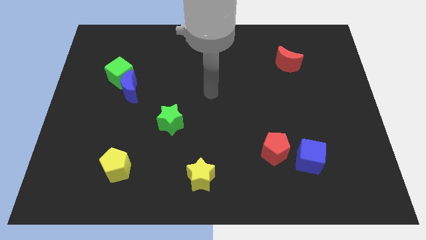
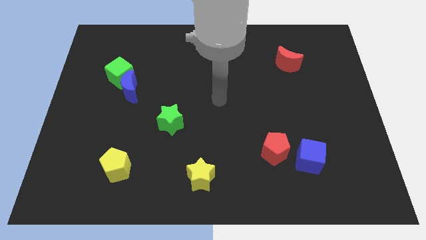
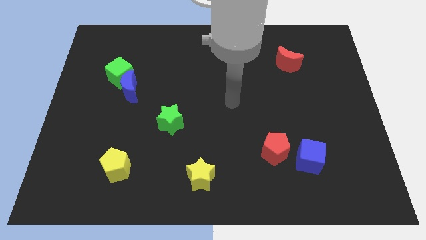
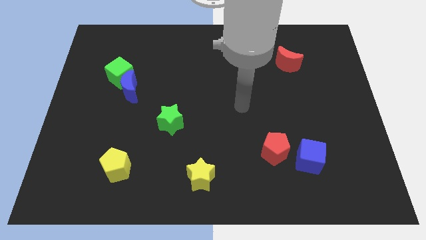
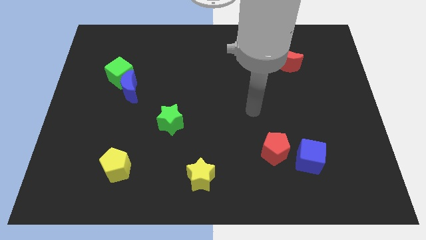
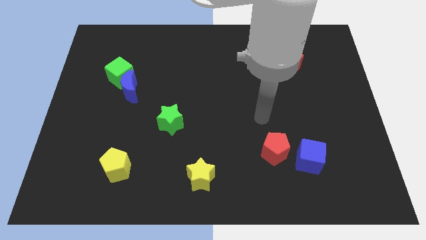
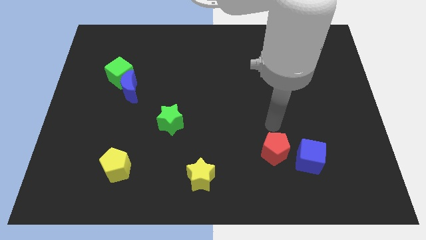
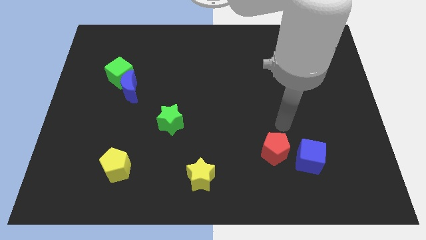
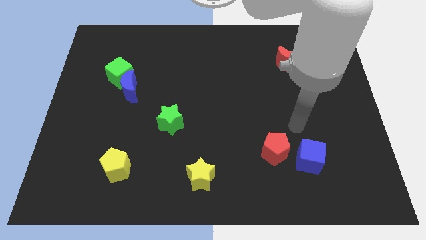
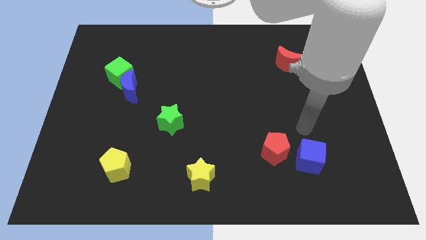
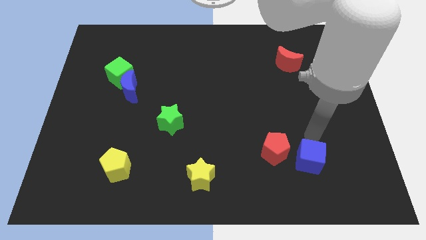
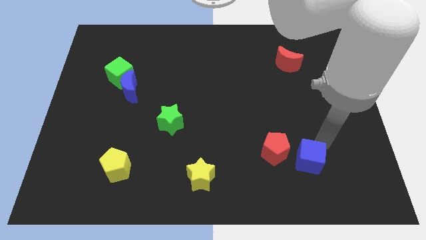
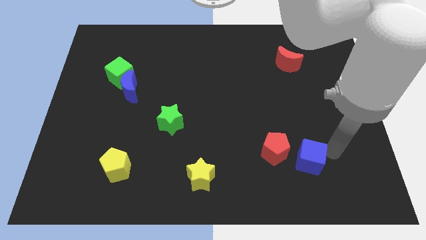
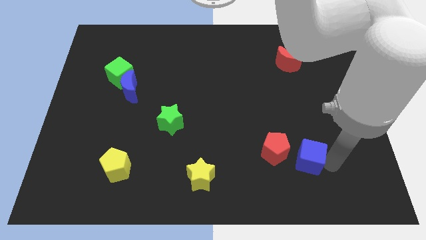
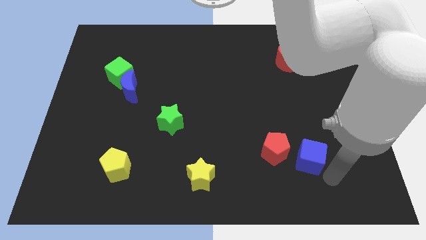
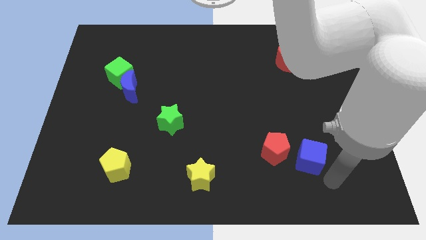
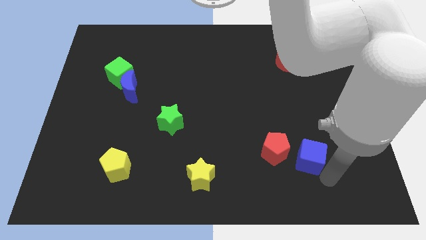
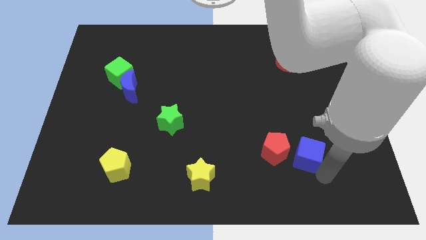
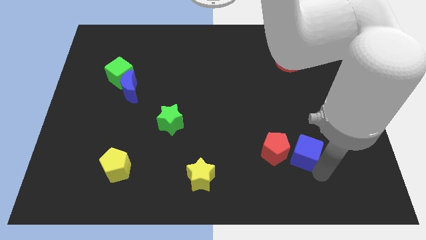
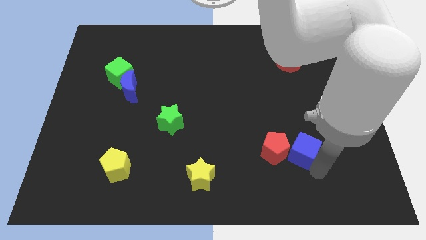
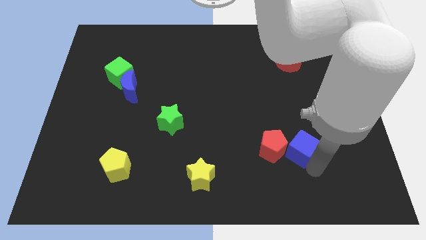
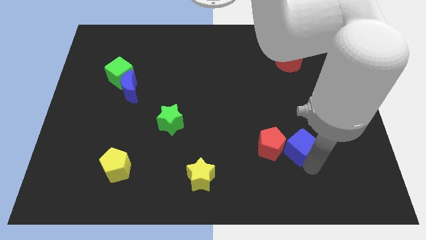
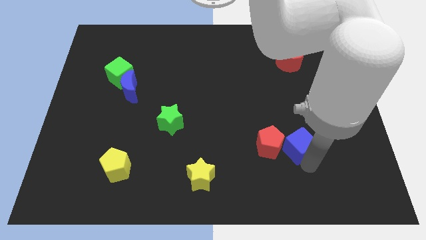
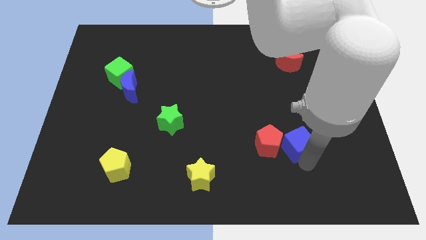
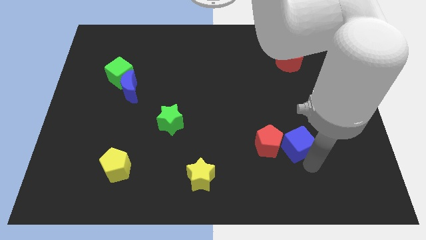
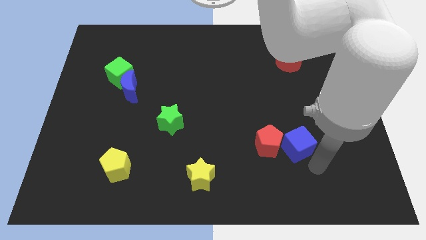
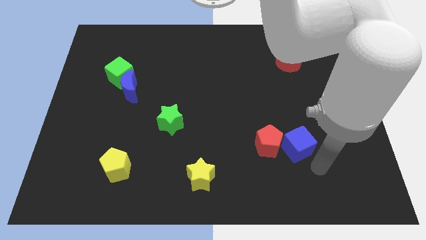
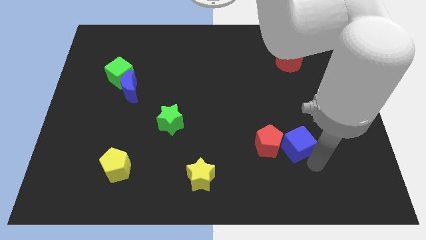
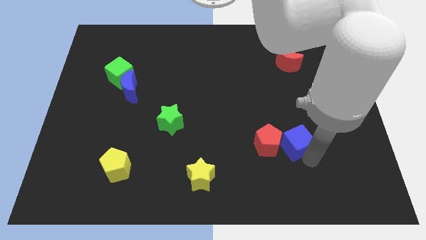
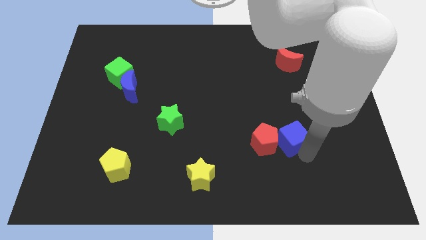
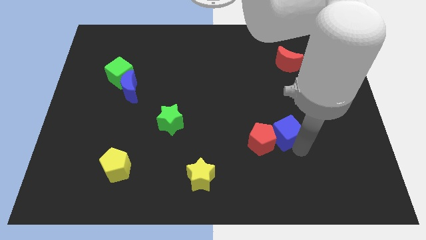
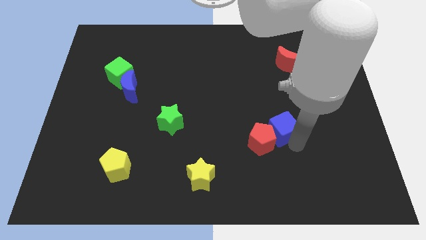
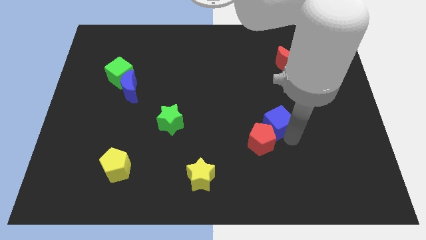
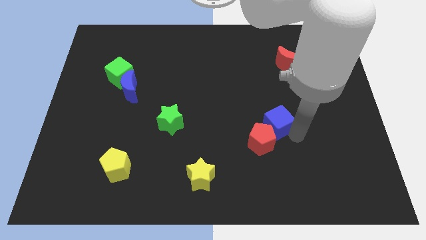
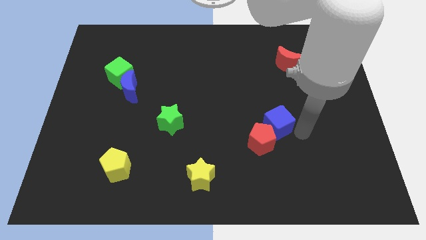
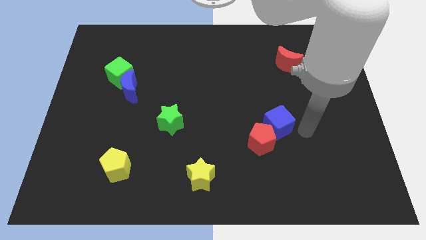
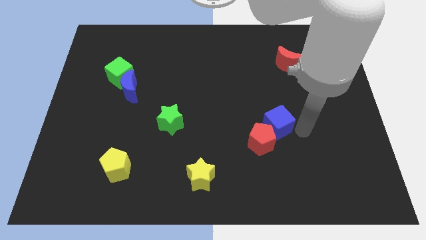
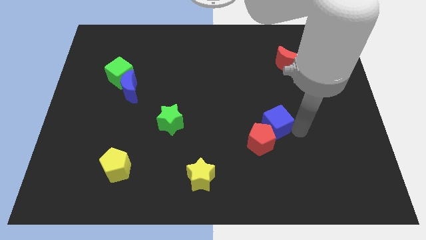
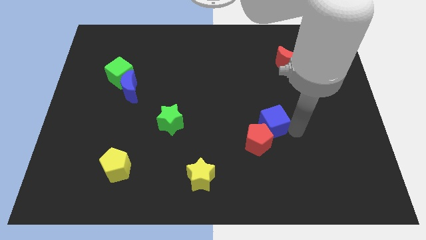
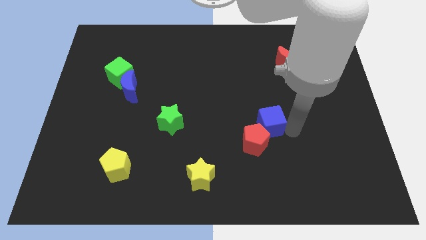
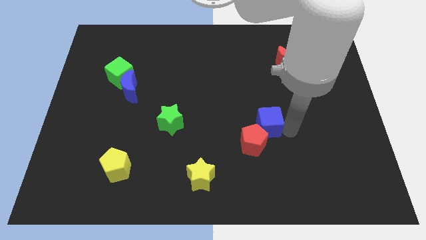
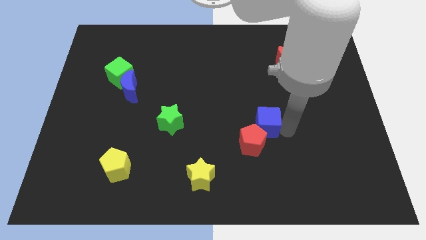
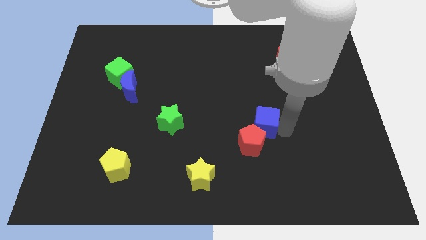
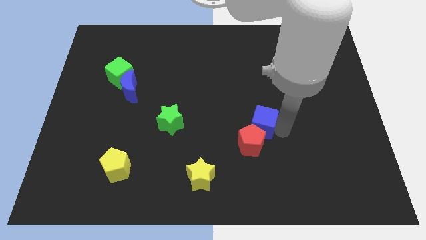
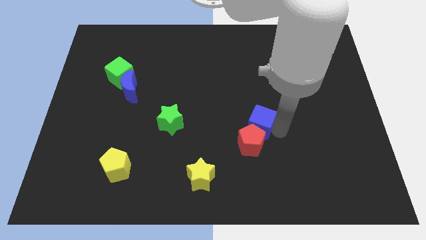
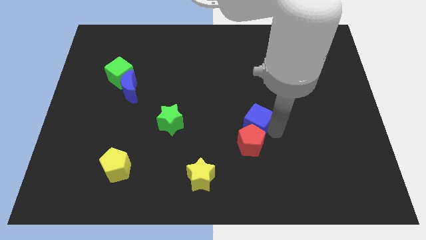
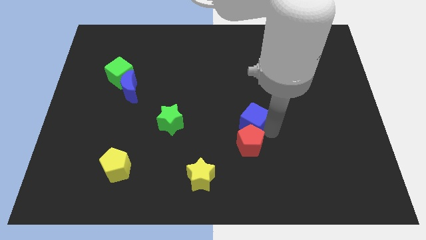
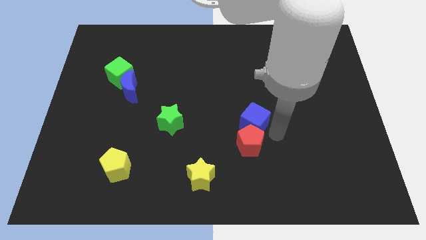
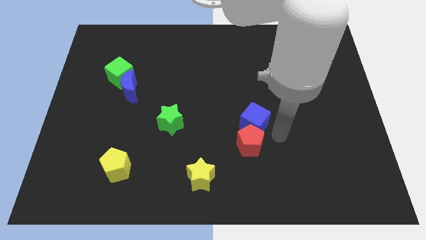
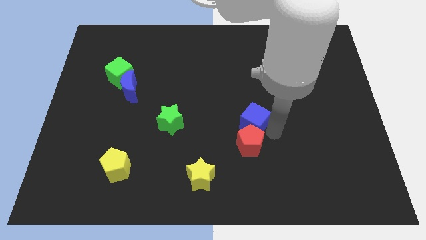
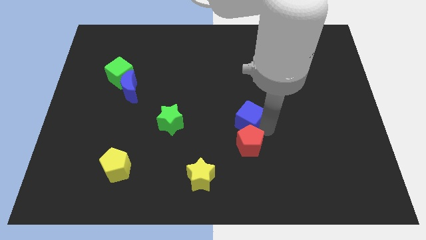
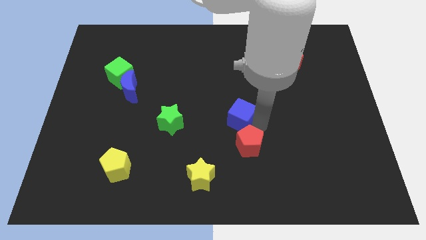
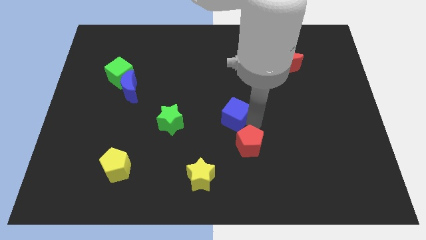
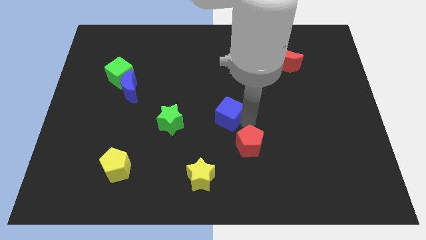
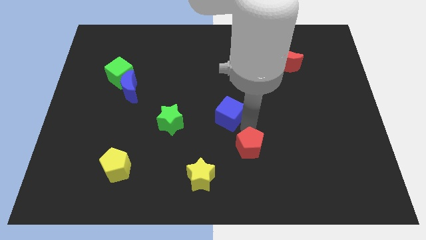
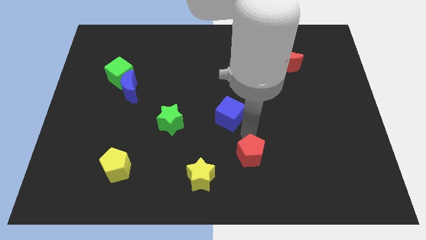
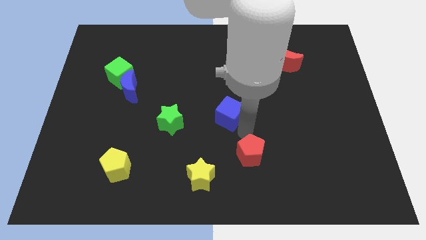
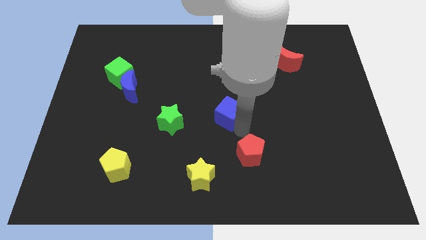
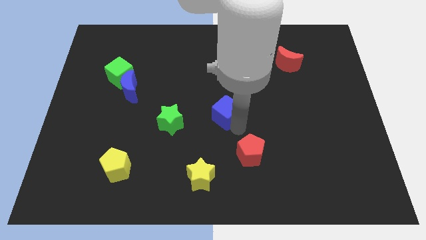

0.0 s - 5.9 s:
move the blue cube up and to the left

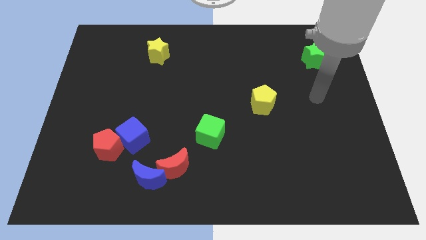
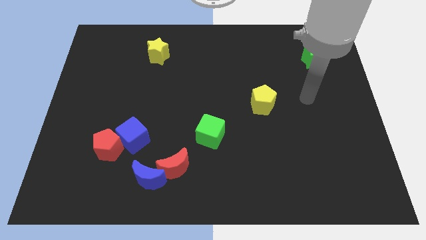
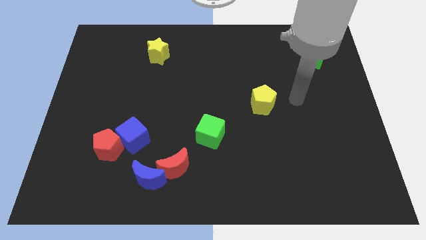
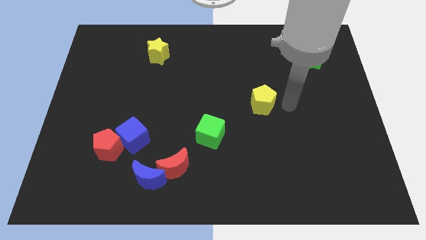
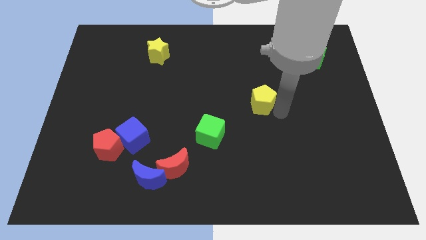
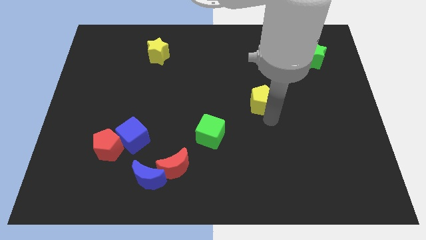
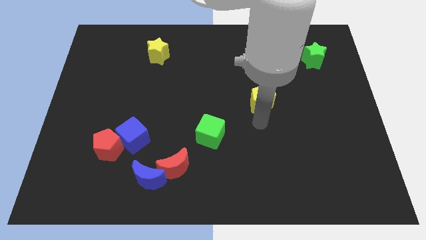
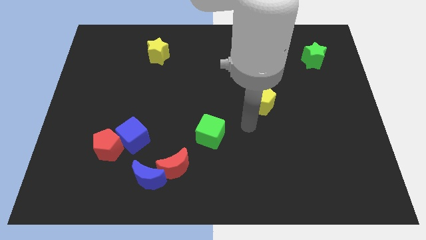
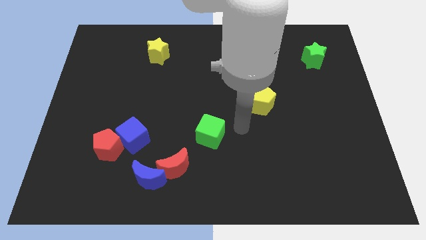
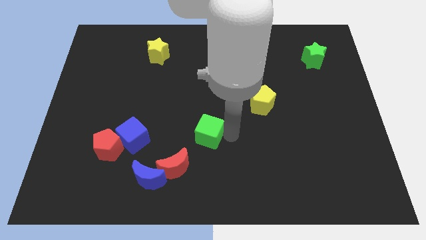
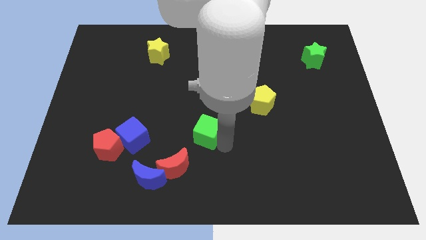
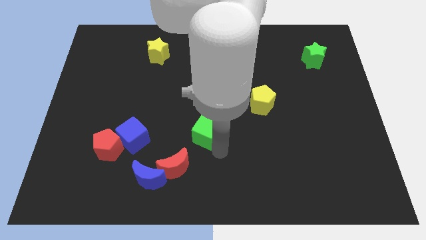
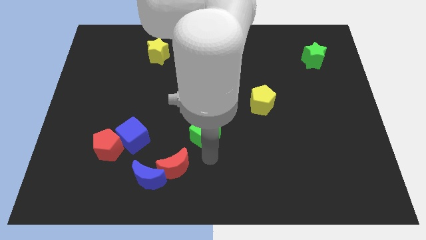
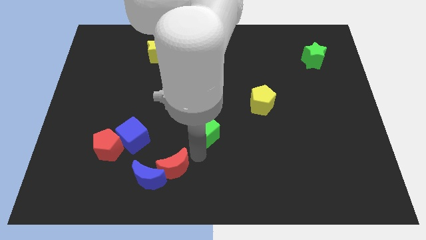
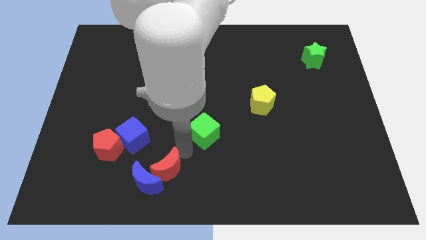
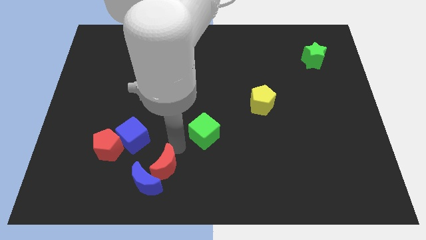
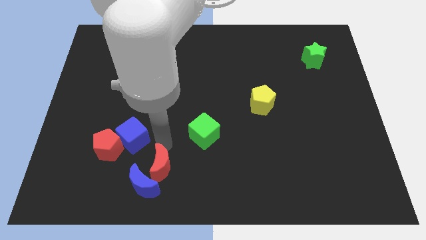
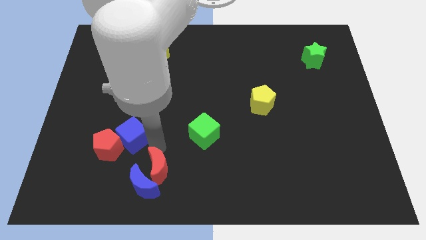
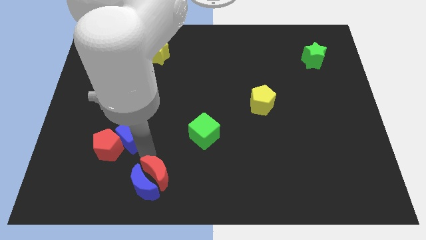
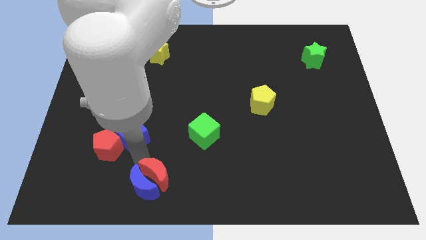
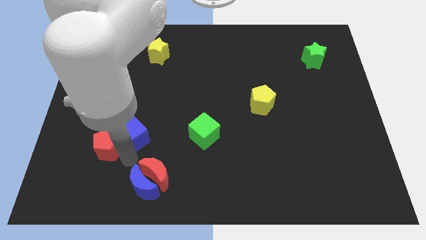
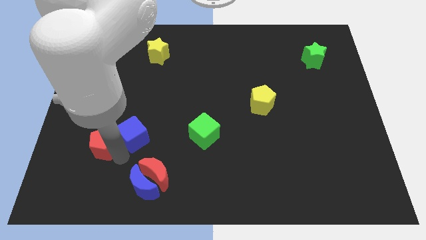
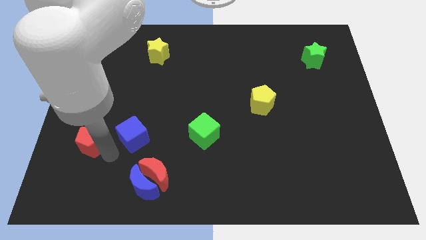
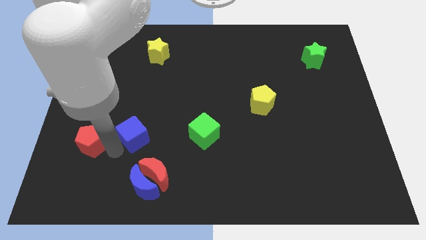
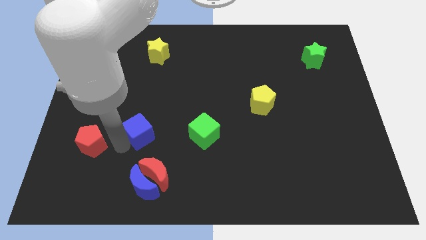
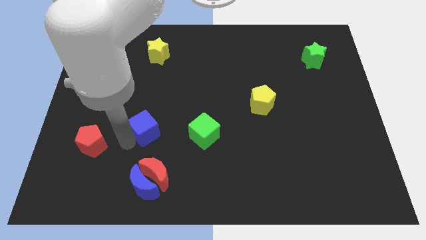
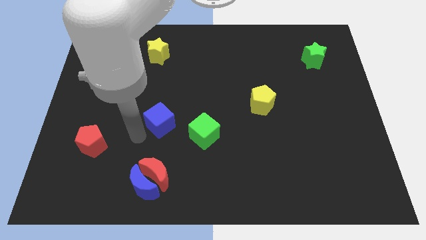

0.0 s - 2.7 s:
slightly slide the blue cube up and right diagonally
